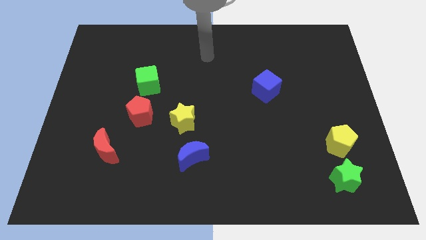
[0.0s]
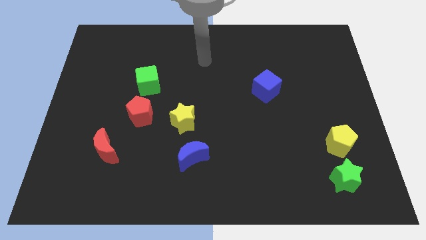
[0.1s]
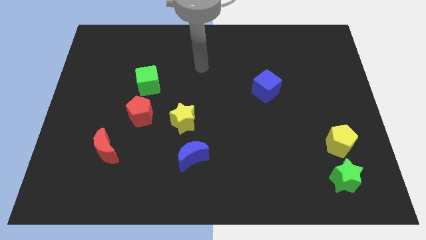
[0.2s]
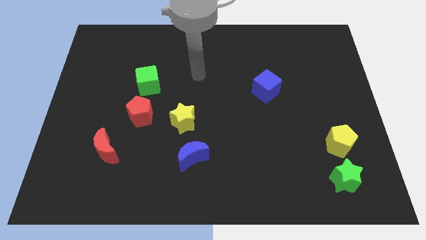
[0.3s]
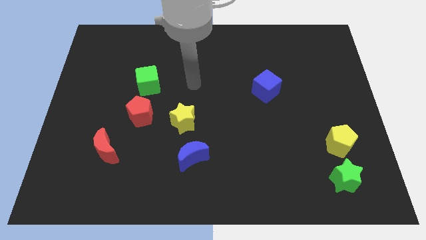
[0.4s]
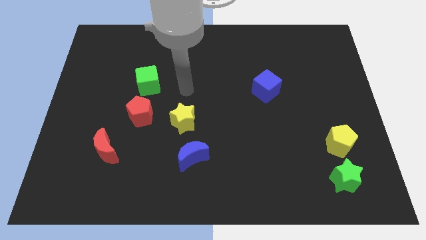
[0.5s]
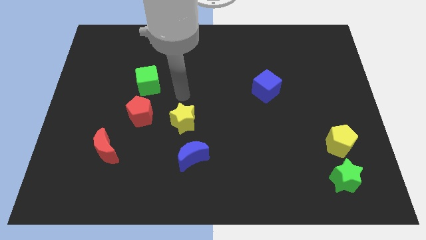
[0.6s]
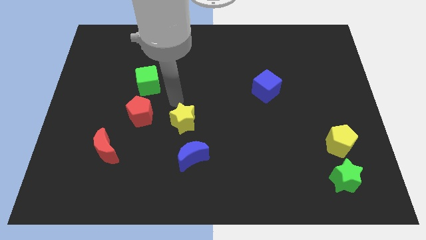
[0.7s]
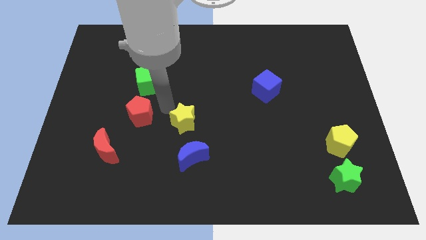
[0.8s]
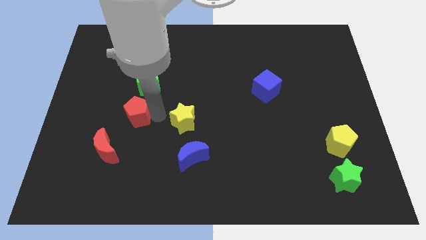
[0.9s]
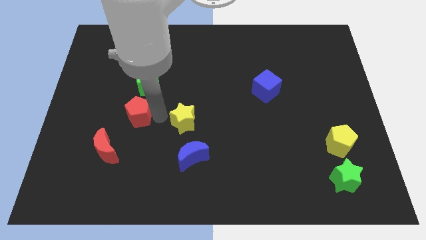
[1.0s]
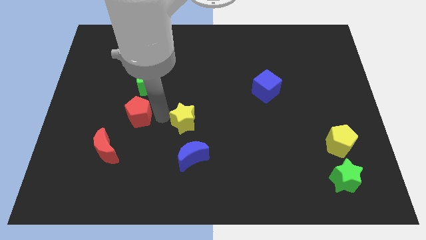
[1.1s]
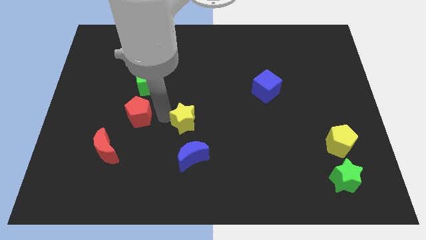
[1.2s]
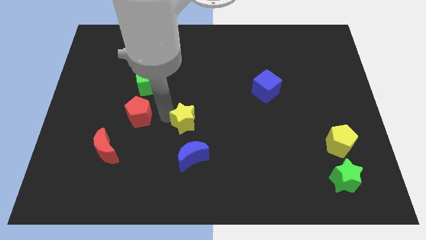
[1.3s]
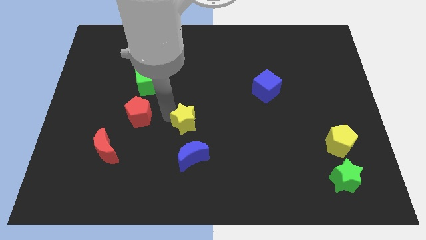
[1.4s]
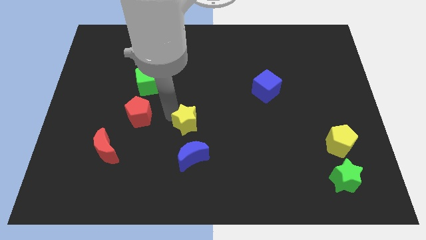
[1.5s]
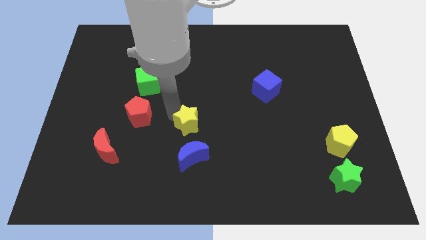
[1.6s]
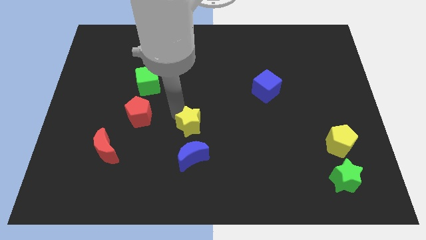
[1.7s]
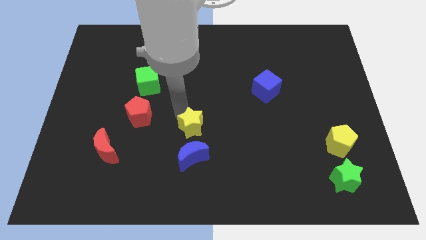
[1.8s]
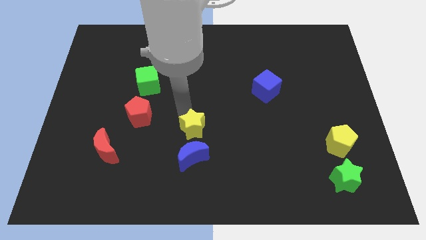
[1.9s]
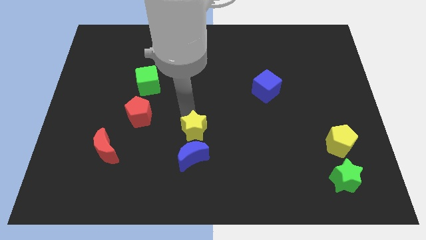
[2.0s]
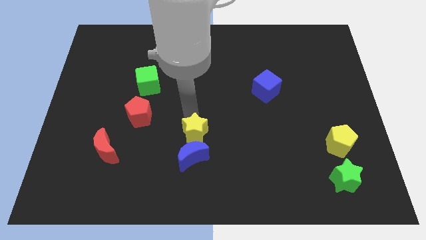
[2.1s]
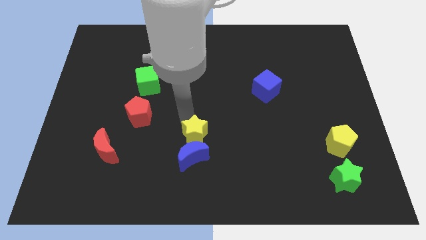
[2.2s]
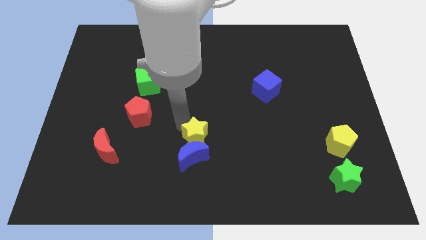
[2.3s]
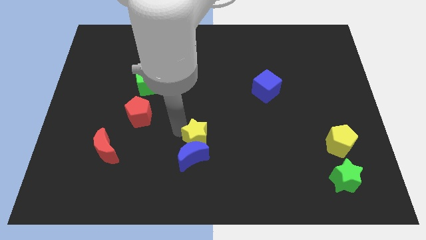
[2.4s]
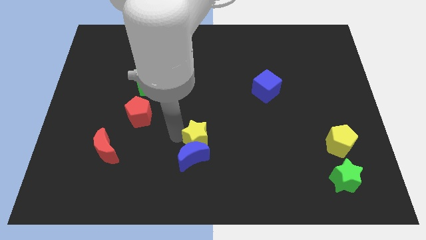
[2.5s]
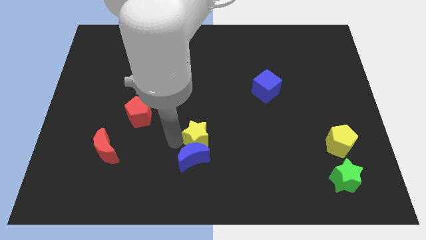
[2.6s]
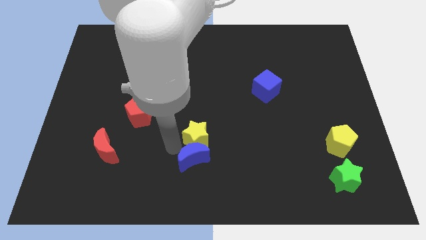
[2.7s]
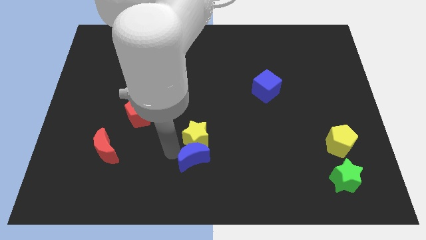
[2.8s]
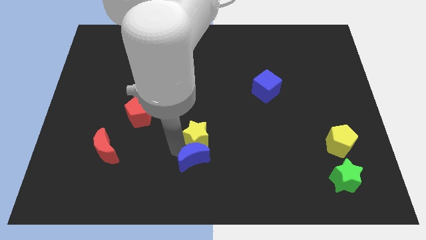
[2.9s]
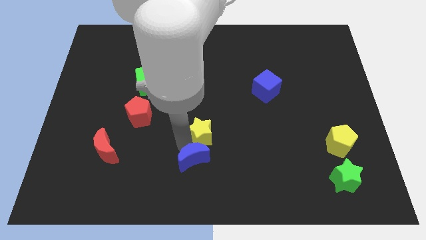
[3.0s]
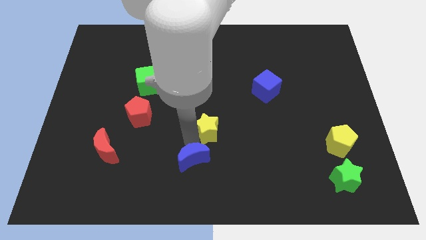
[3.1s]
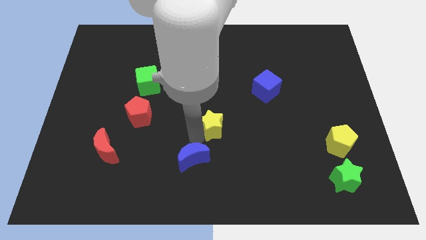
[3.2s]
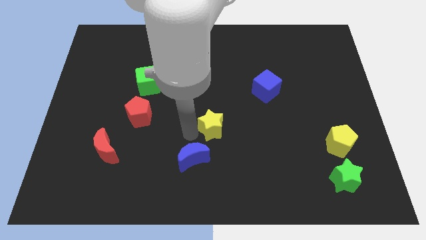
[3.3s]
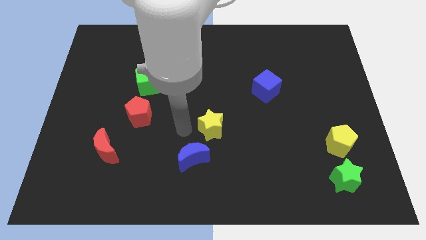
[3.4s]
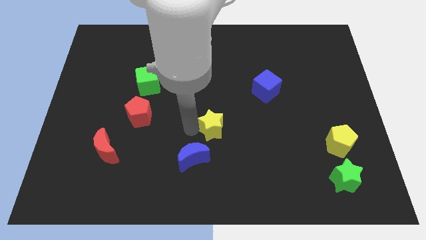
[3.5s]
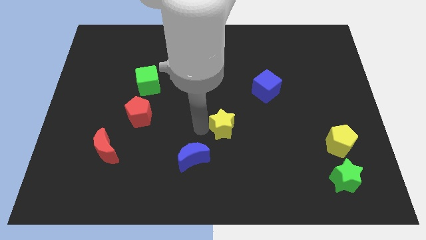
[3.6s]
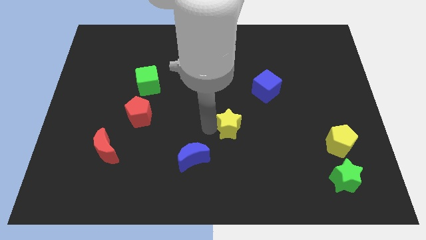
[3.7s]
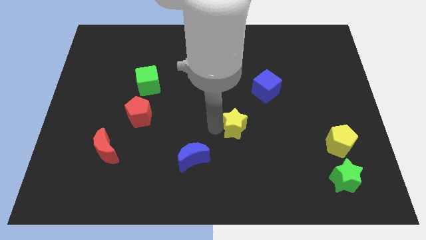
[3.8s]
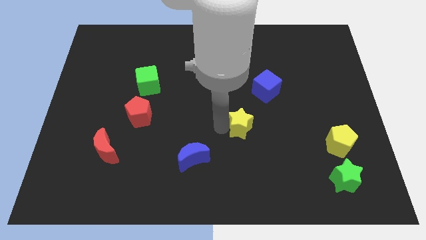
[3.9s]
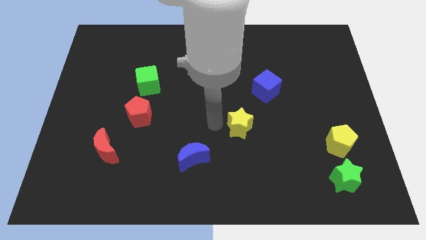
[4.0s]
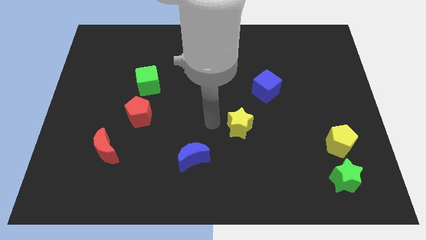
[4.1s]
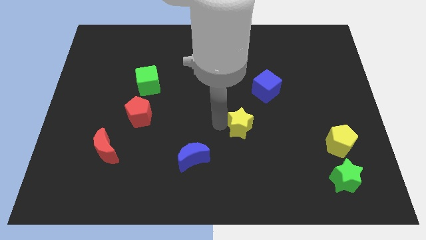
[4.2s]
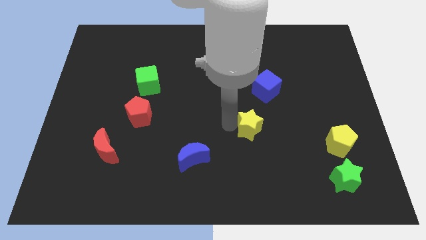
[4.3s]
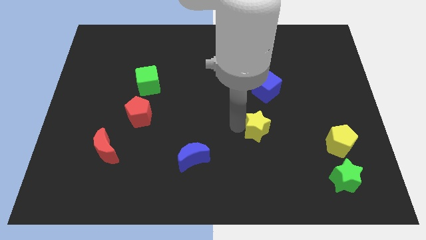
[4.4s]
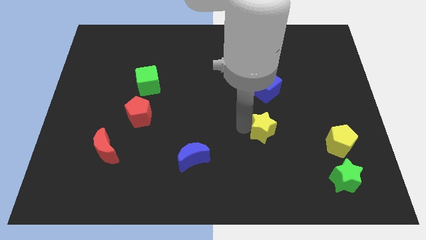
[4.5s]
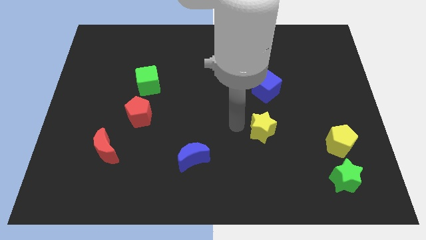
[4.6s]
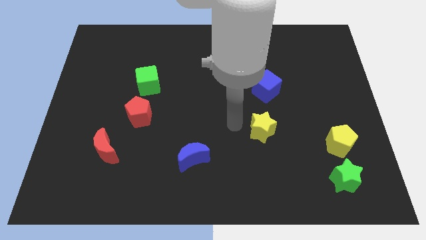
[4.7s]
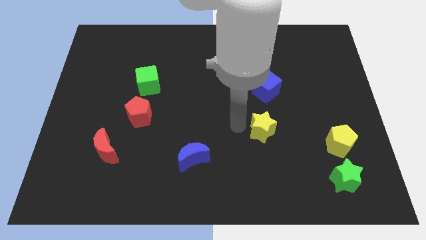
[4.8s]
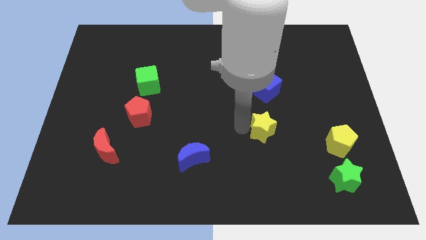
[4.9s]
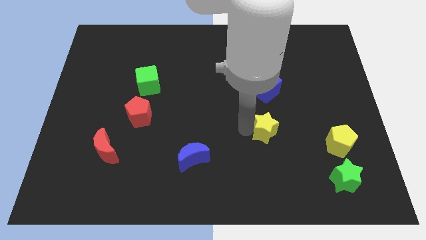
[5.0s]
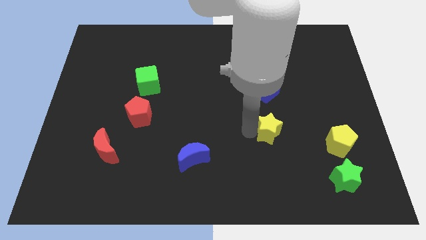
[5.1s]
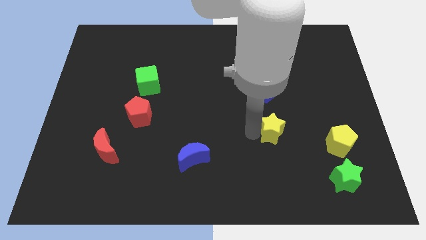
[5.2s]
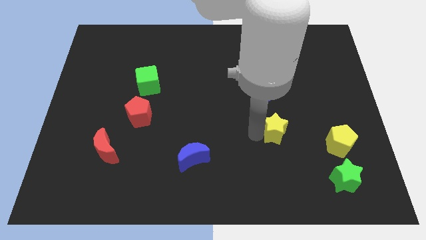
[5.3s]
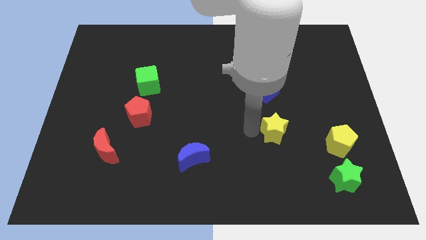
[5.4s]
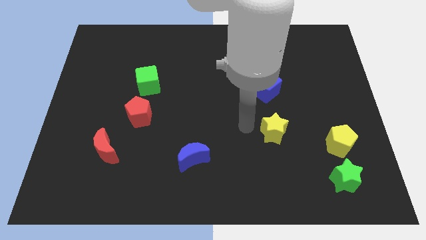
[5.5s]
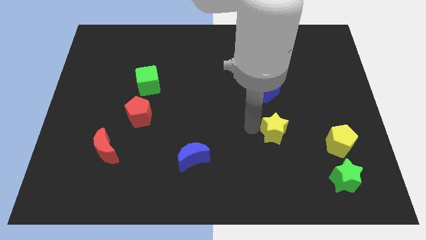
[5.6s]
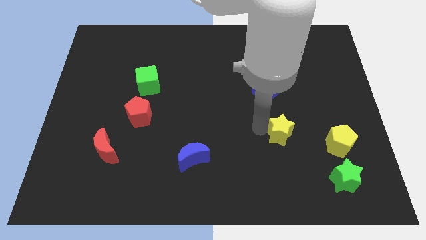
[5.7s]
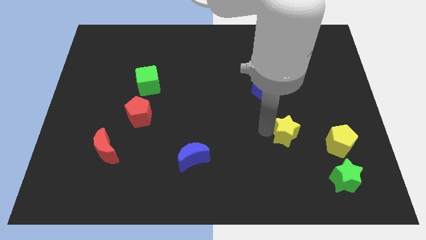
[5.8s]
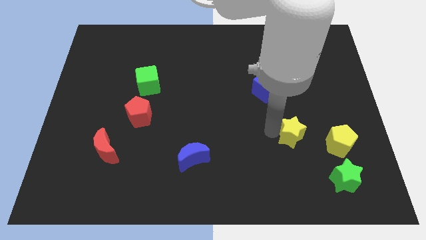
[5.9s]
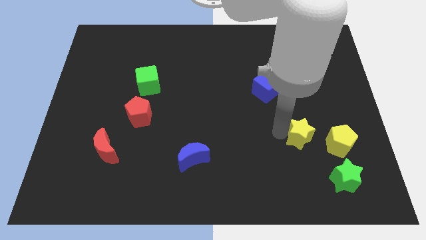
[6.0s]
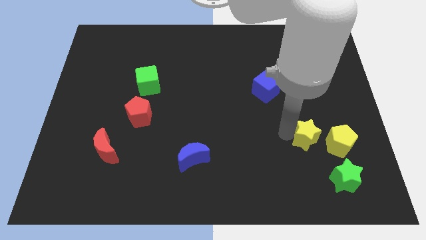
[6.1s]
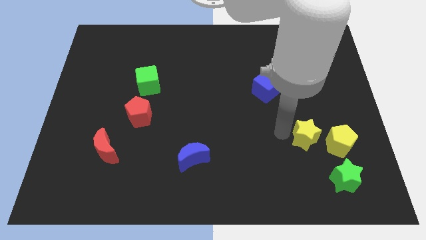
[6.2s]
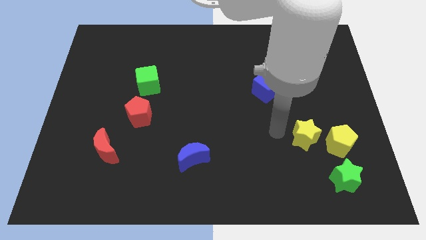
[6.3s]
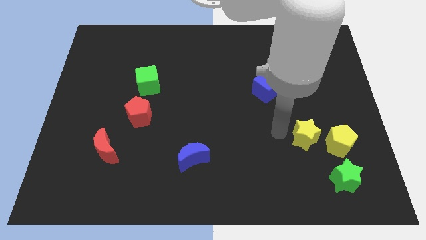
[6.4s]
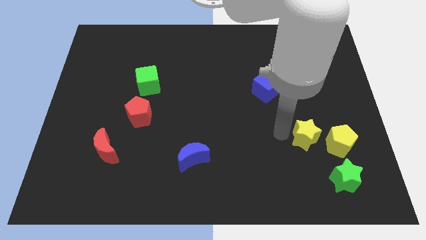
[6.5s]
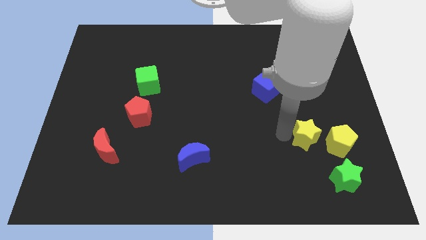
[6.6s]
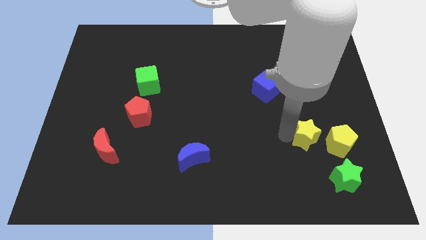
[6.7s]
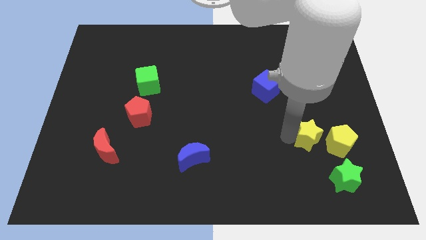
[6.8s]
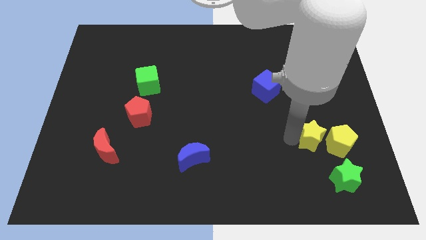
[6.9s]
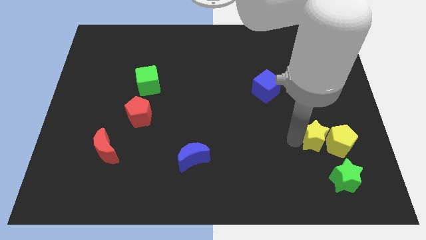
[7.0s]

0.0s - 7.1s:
slide the yellow star next to the yellow pentagon
